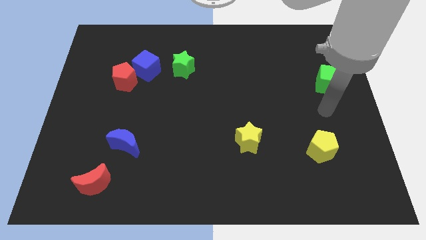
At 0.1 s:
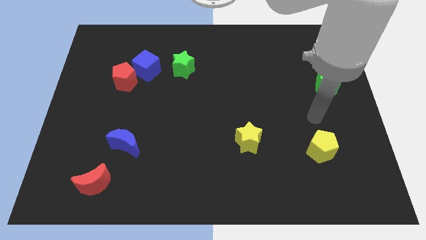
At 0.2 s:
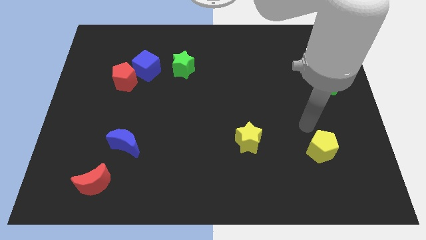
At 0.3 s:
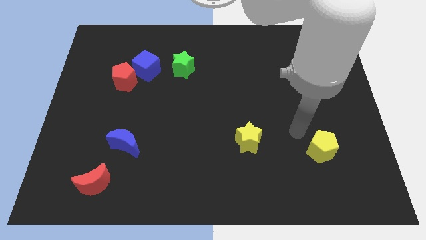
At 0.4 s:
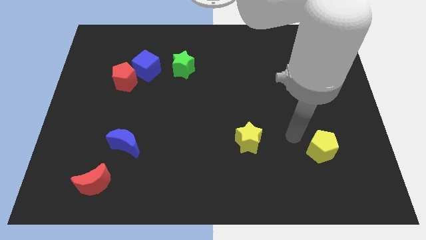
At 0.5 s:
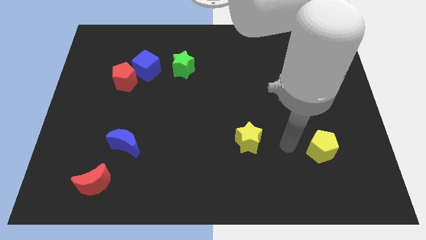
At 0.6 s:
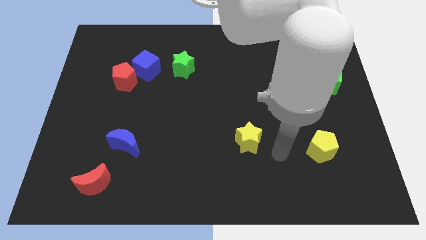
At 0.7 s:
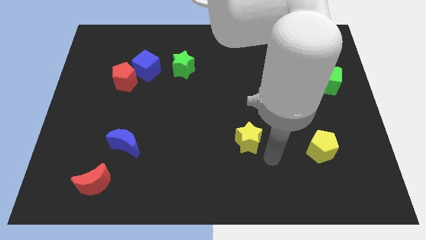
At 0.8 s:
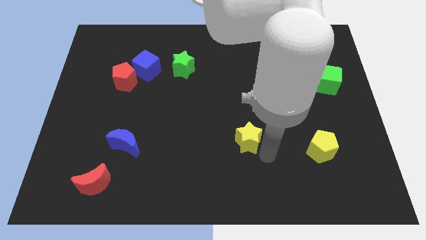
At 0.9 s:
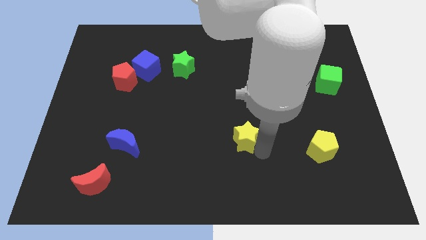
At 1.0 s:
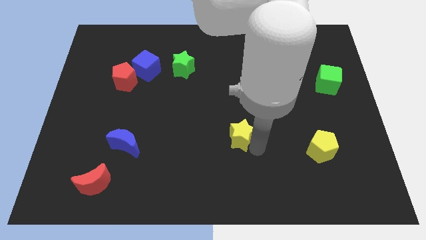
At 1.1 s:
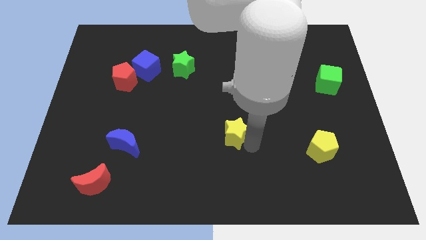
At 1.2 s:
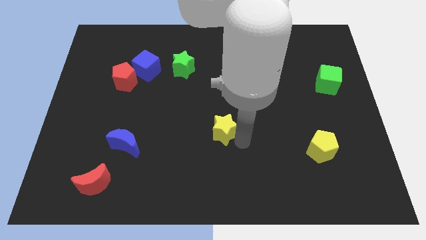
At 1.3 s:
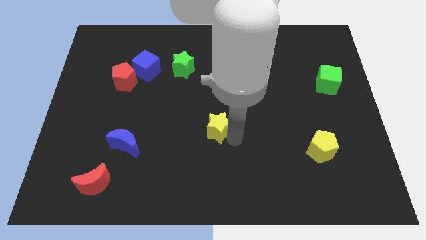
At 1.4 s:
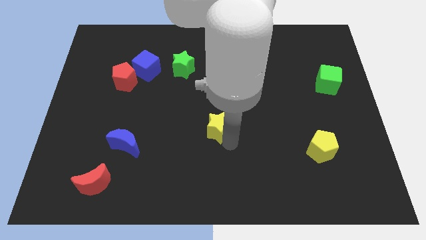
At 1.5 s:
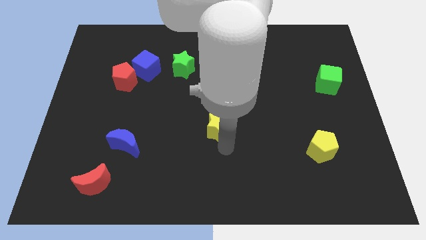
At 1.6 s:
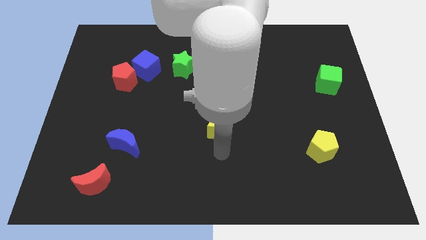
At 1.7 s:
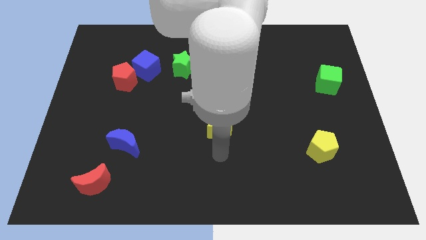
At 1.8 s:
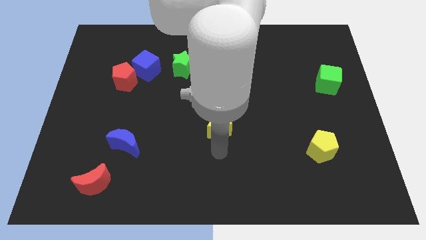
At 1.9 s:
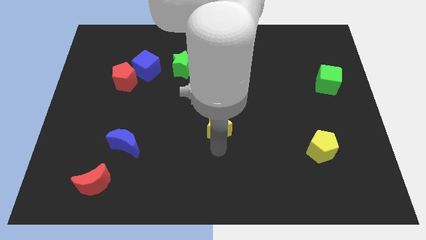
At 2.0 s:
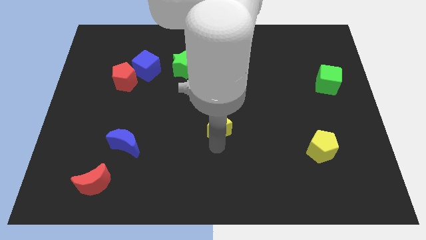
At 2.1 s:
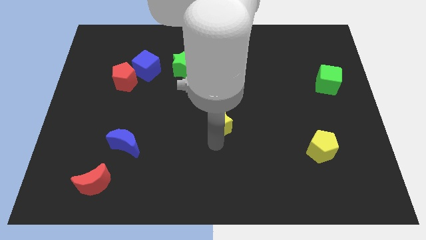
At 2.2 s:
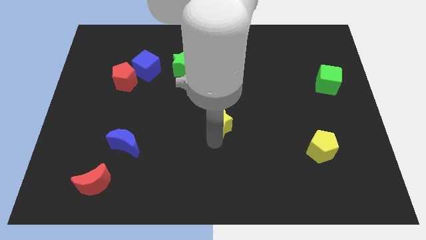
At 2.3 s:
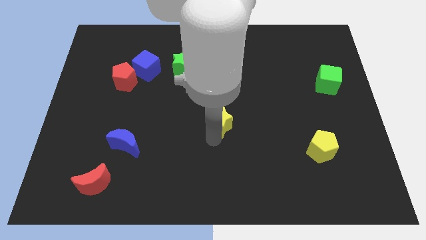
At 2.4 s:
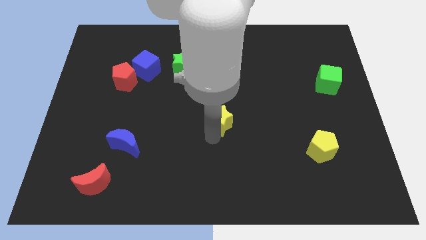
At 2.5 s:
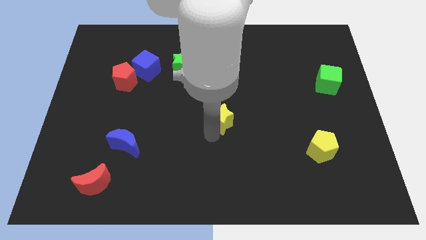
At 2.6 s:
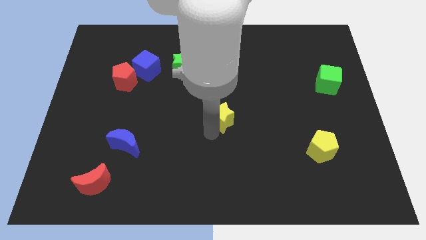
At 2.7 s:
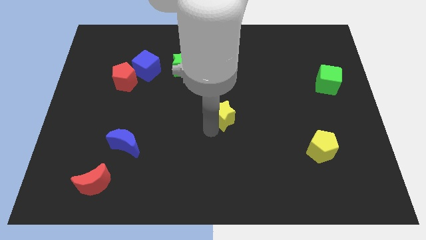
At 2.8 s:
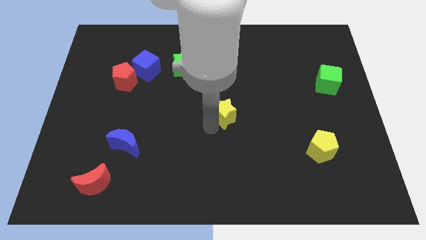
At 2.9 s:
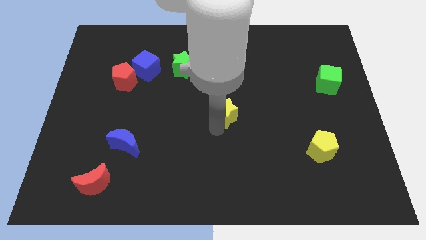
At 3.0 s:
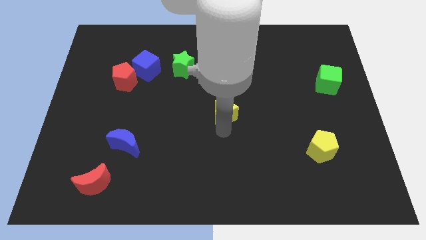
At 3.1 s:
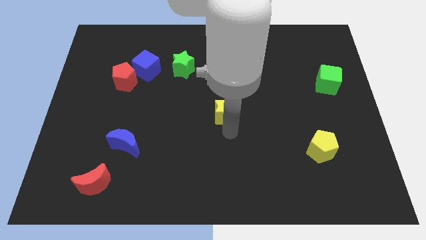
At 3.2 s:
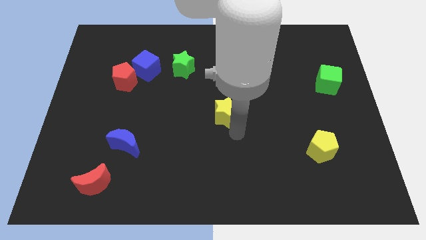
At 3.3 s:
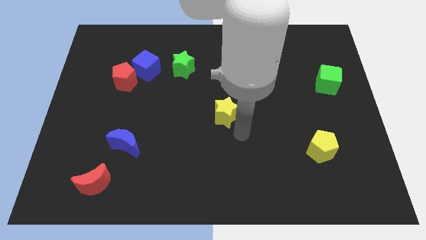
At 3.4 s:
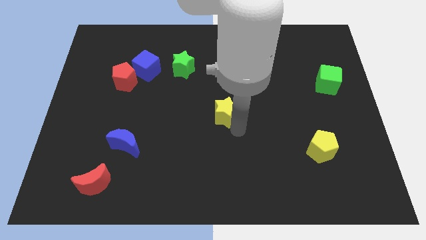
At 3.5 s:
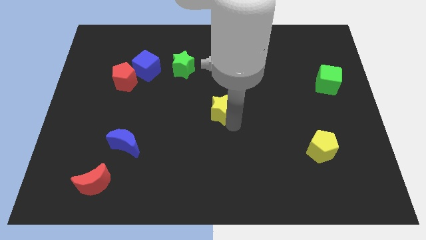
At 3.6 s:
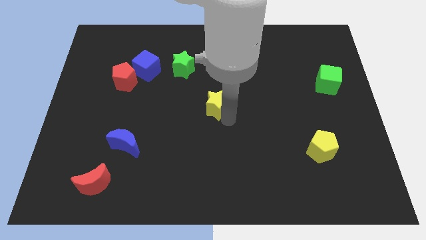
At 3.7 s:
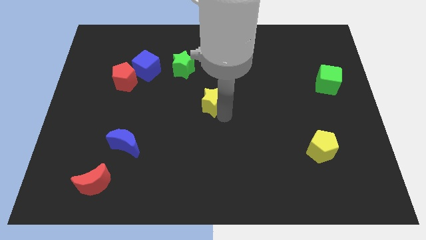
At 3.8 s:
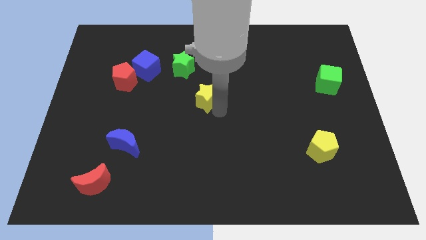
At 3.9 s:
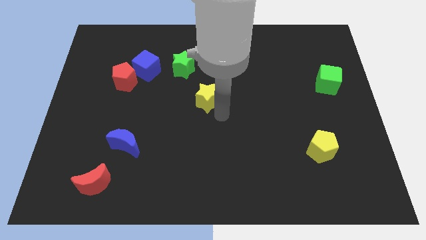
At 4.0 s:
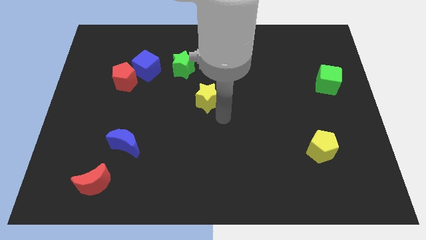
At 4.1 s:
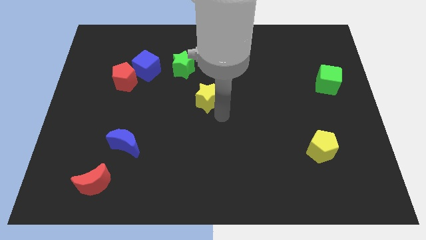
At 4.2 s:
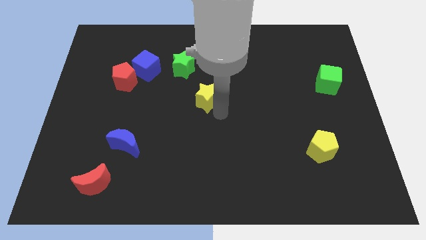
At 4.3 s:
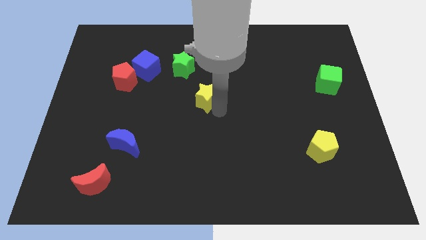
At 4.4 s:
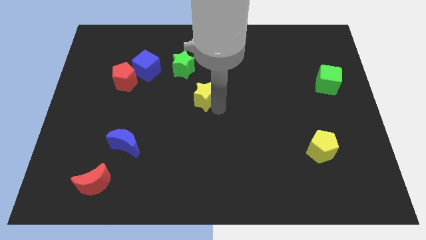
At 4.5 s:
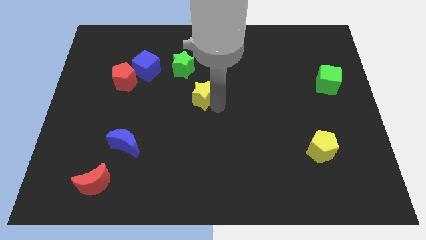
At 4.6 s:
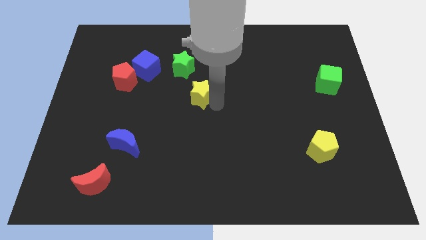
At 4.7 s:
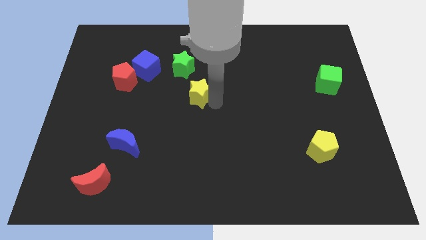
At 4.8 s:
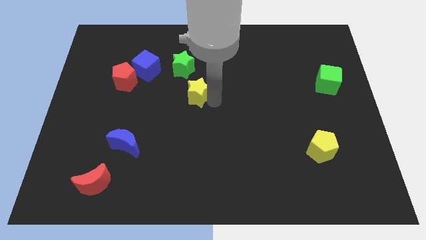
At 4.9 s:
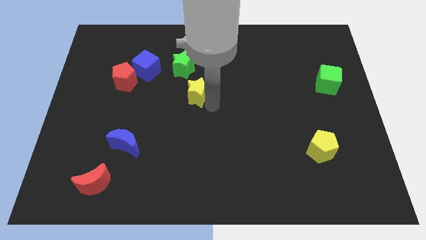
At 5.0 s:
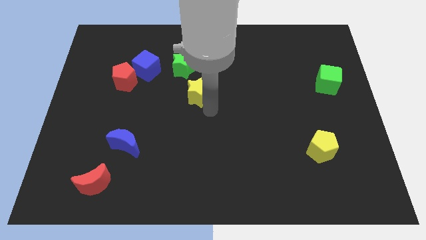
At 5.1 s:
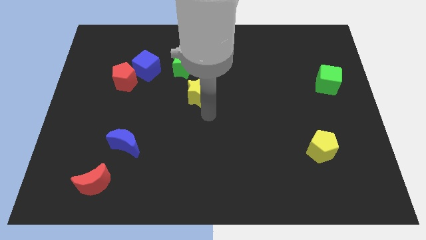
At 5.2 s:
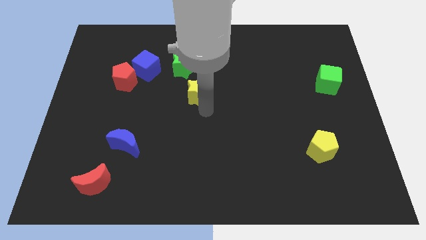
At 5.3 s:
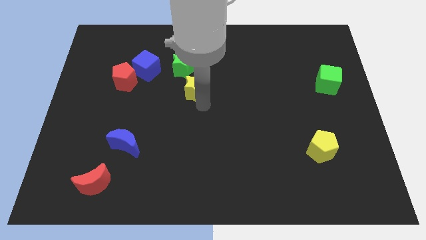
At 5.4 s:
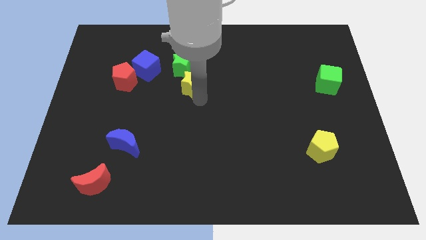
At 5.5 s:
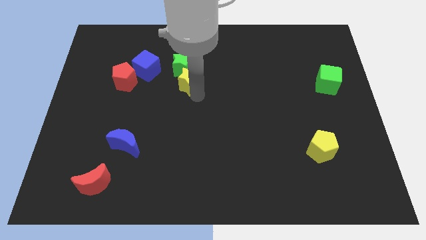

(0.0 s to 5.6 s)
put the yellow star towards the green star

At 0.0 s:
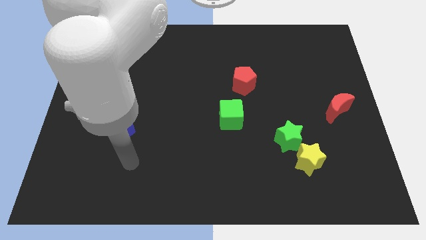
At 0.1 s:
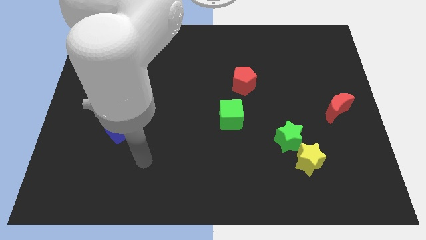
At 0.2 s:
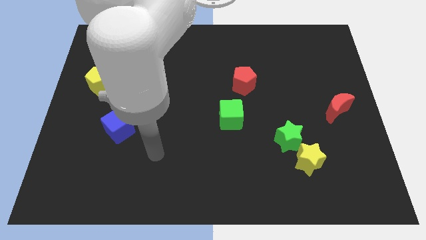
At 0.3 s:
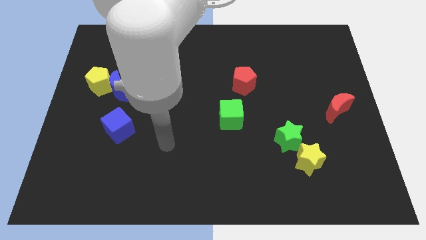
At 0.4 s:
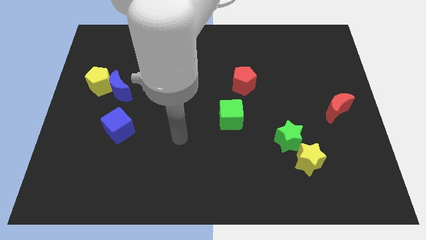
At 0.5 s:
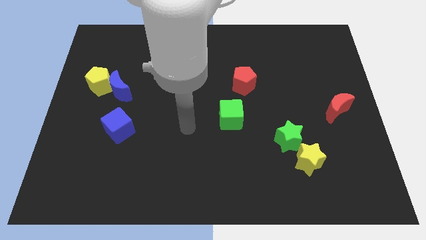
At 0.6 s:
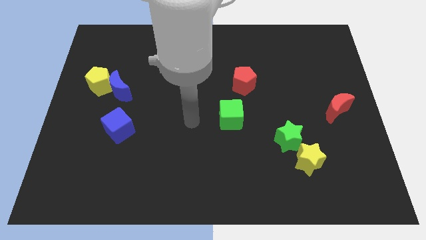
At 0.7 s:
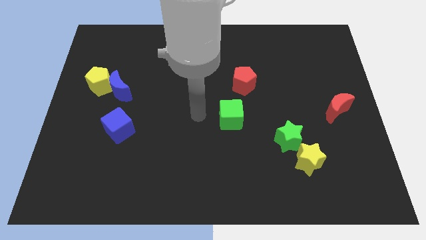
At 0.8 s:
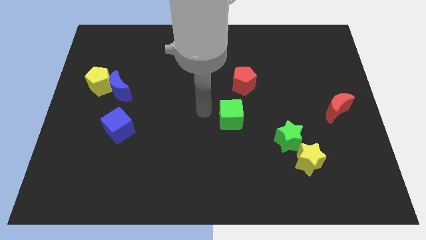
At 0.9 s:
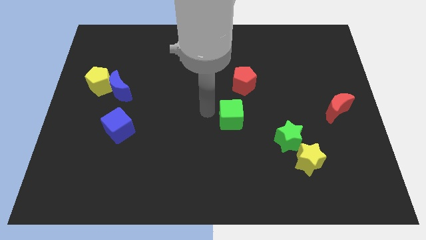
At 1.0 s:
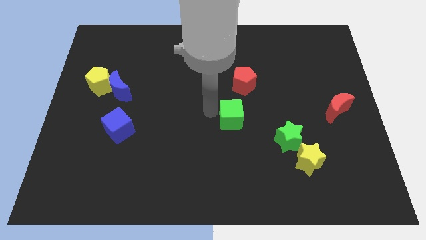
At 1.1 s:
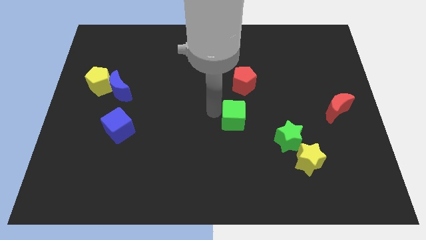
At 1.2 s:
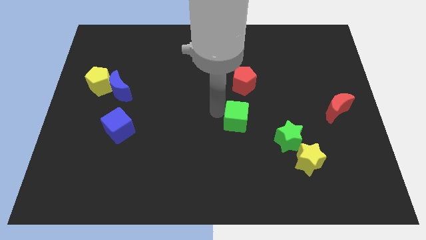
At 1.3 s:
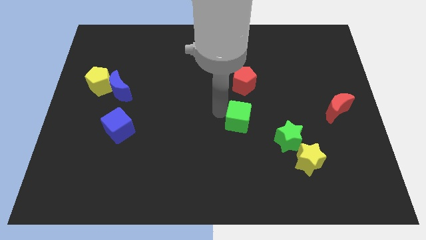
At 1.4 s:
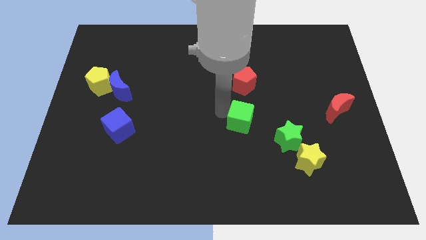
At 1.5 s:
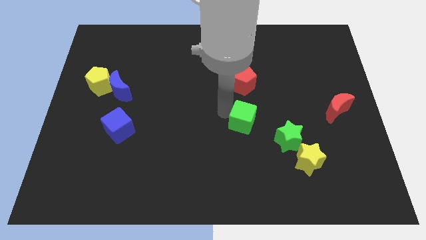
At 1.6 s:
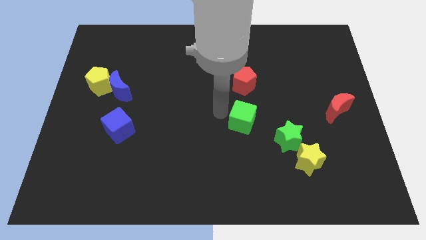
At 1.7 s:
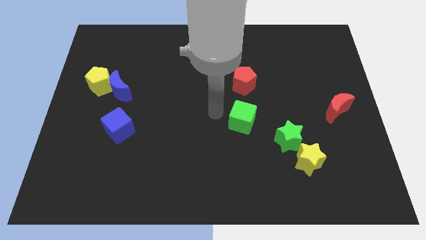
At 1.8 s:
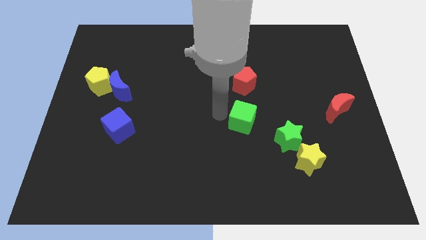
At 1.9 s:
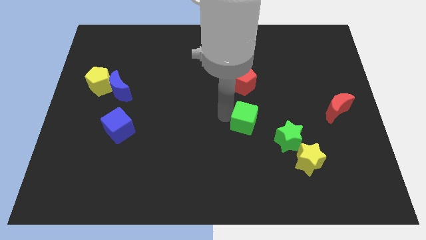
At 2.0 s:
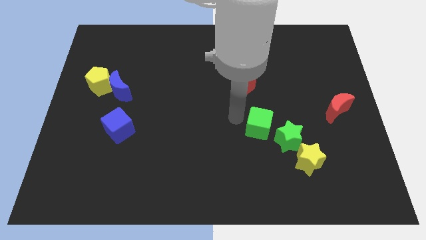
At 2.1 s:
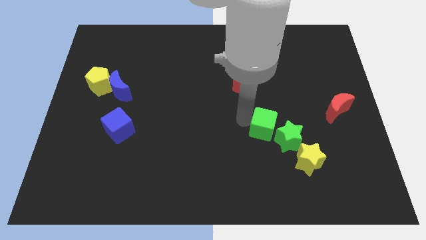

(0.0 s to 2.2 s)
put the green cube next to the green star
